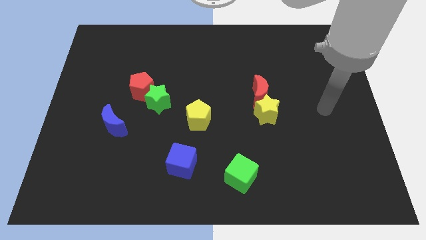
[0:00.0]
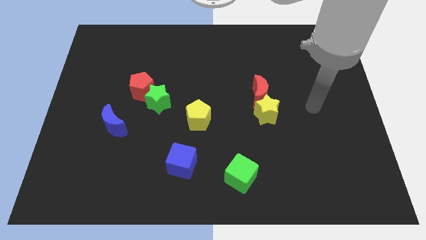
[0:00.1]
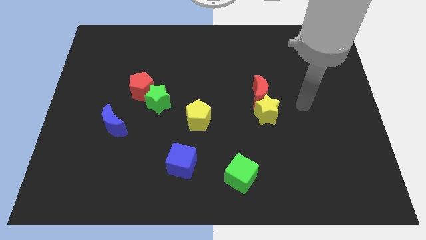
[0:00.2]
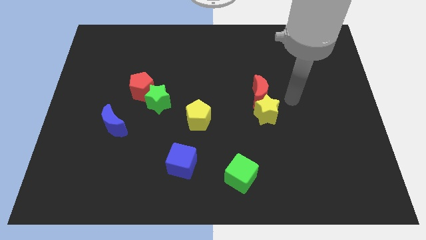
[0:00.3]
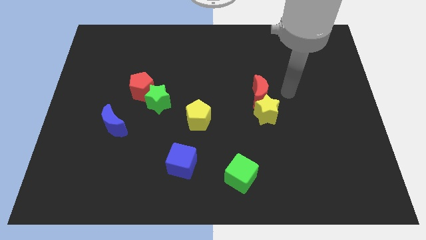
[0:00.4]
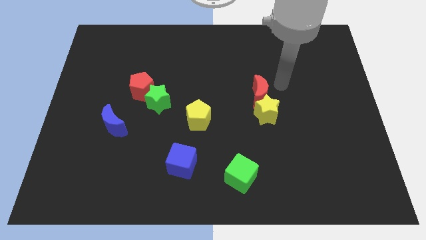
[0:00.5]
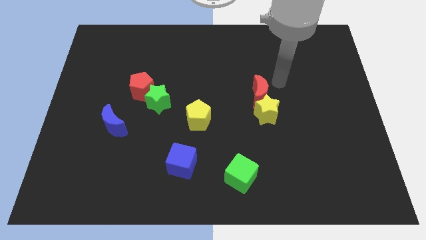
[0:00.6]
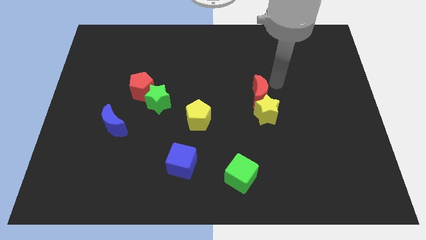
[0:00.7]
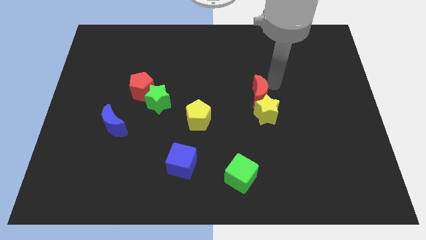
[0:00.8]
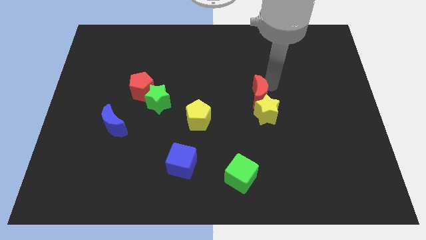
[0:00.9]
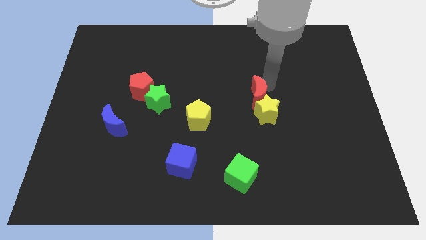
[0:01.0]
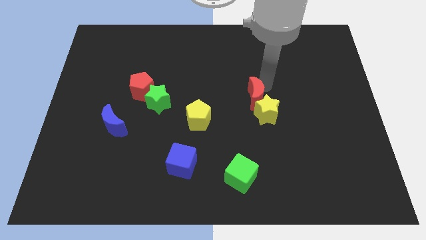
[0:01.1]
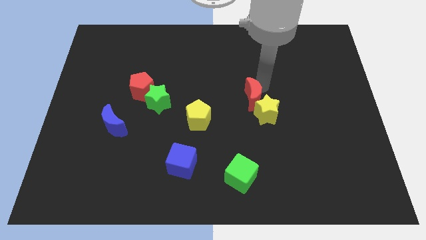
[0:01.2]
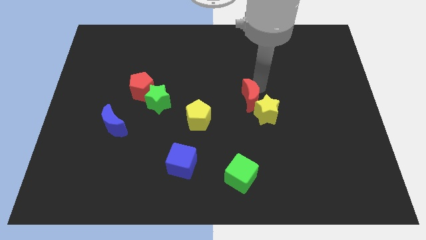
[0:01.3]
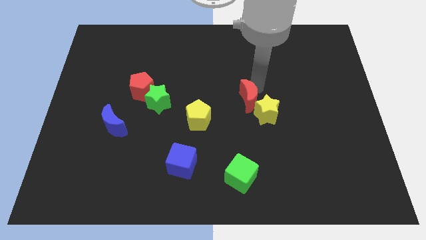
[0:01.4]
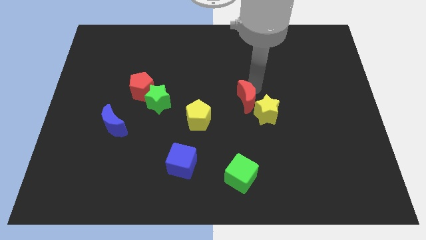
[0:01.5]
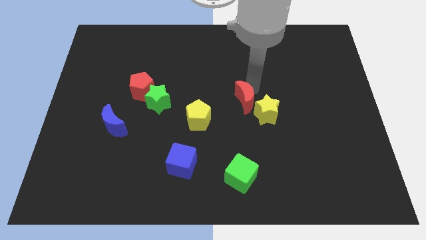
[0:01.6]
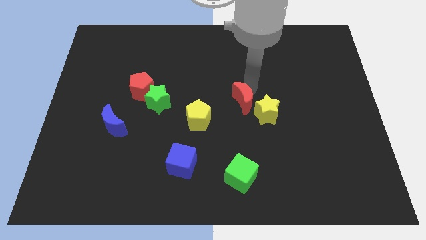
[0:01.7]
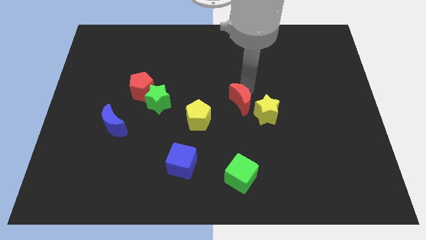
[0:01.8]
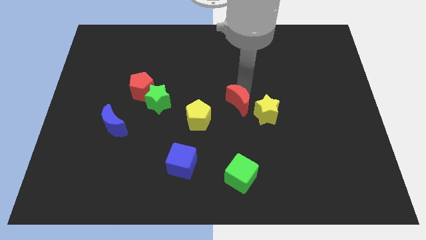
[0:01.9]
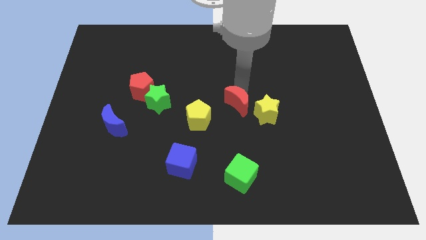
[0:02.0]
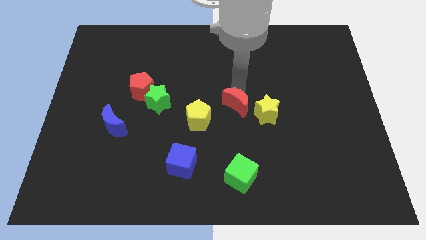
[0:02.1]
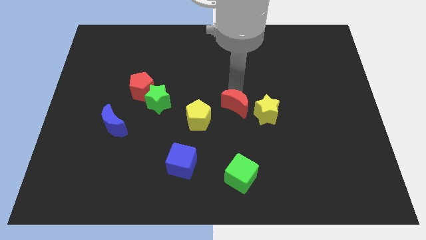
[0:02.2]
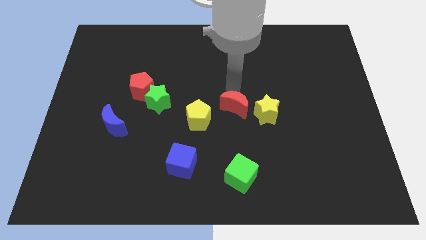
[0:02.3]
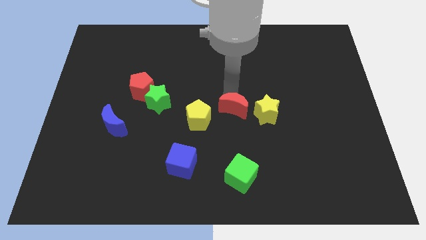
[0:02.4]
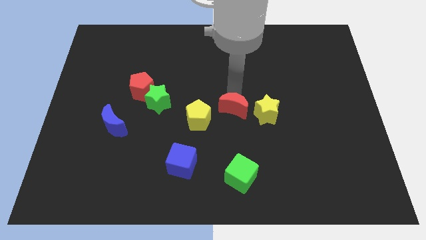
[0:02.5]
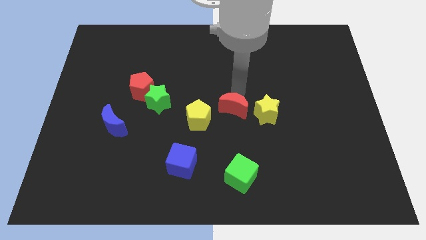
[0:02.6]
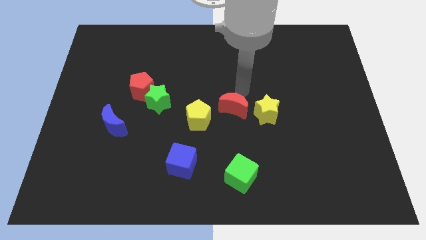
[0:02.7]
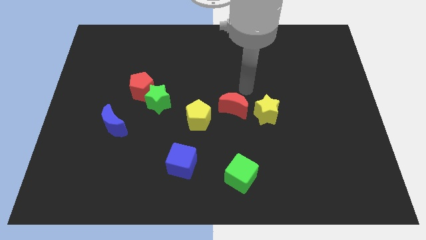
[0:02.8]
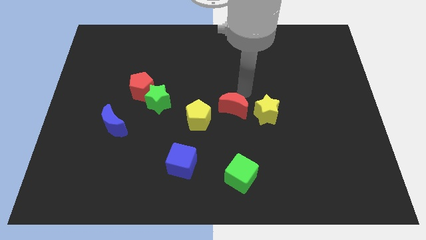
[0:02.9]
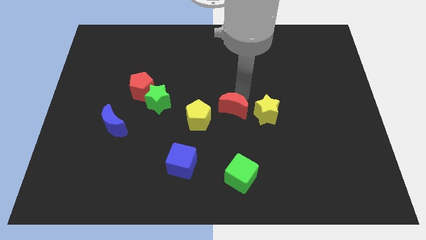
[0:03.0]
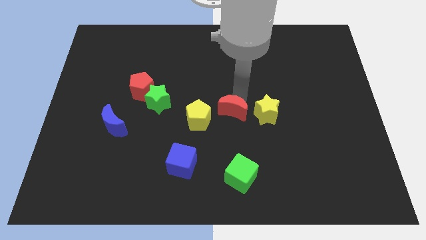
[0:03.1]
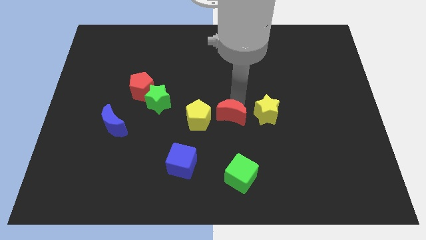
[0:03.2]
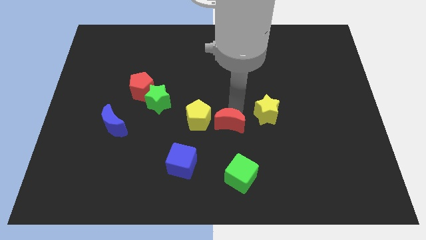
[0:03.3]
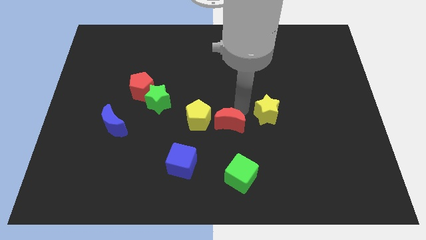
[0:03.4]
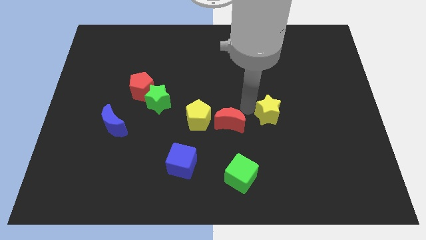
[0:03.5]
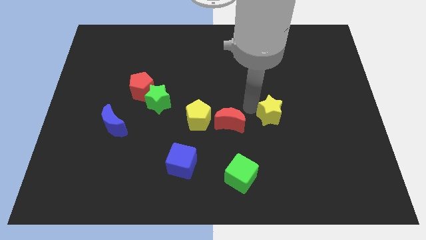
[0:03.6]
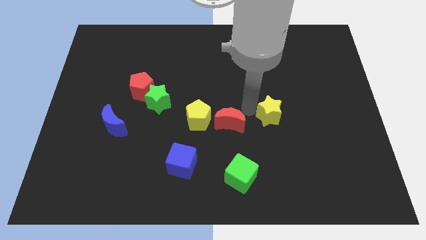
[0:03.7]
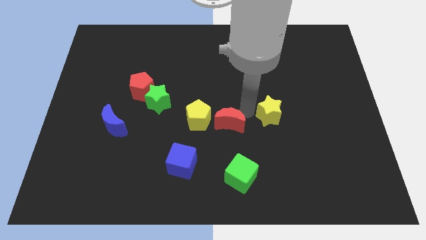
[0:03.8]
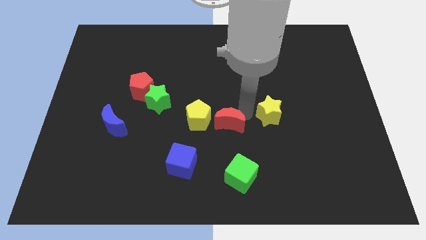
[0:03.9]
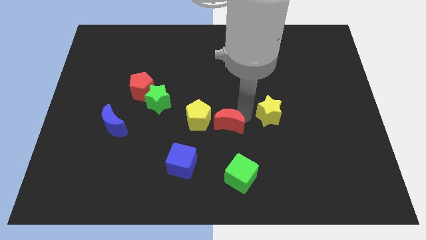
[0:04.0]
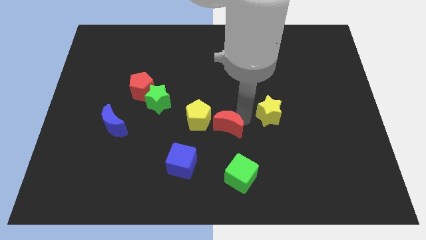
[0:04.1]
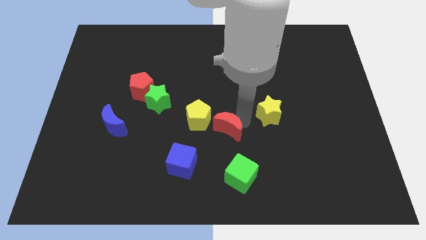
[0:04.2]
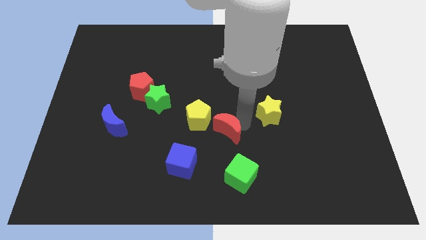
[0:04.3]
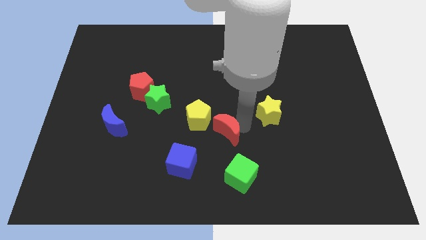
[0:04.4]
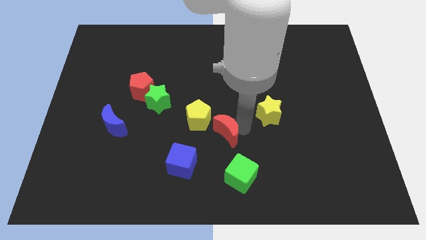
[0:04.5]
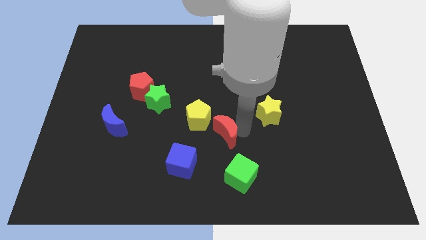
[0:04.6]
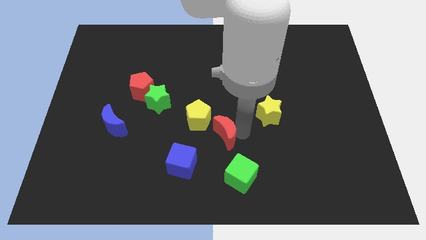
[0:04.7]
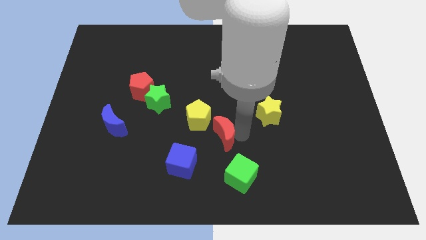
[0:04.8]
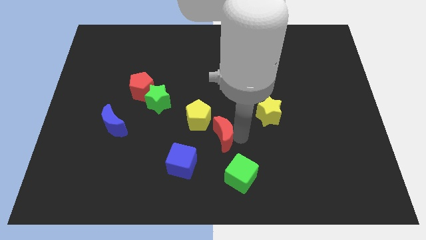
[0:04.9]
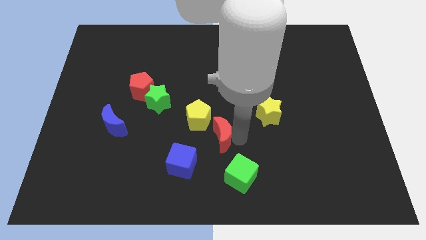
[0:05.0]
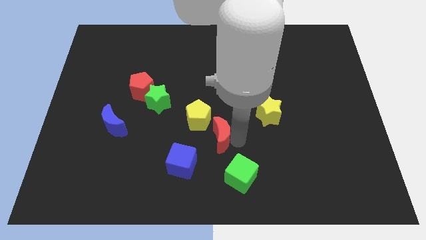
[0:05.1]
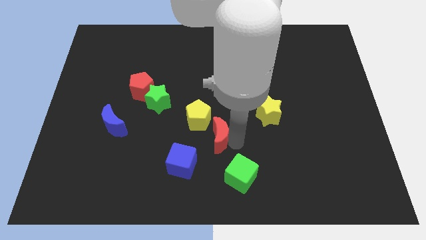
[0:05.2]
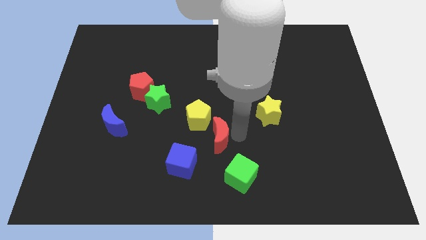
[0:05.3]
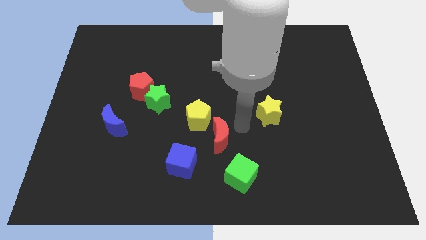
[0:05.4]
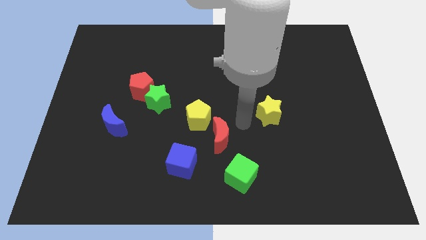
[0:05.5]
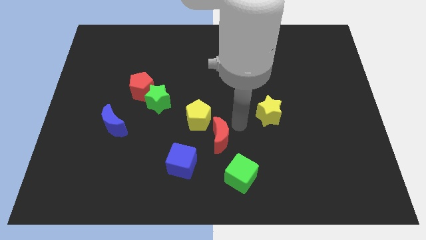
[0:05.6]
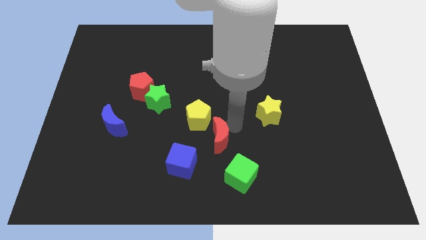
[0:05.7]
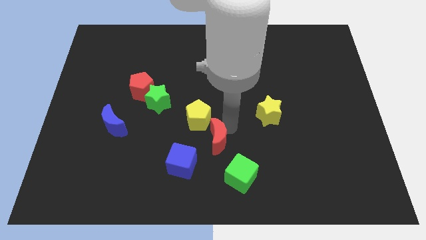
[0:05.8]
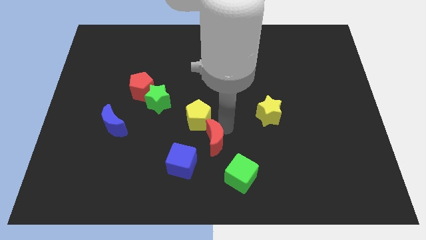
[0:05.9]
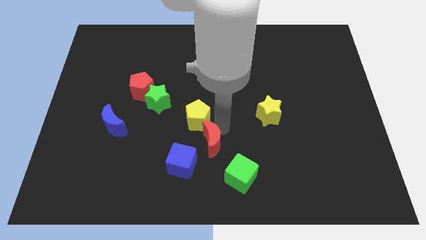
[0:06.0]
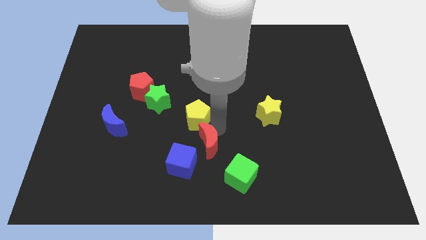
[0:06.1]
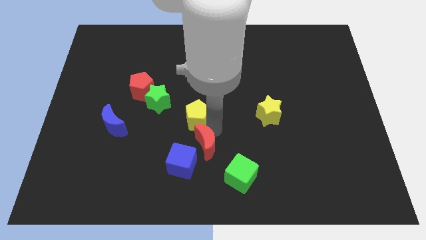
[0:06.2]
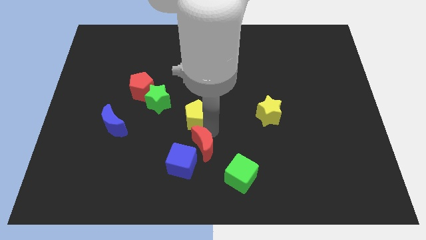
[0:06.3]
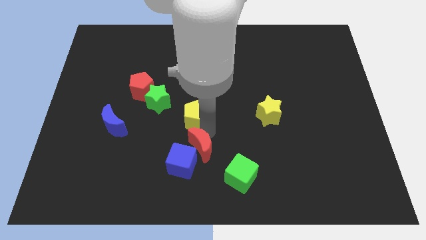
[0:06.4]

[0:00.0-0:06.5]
push the red moon close to the blue cube

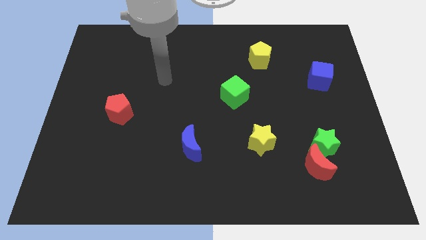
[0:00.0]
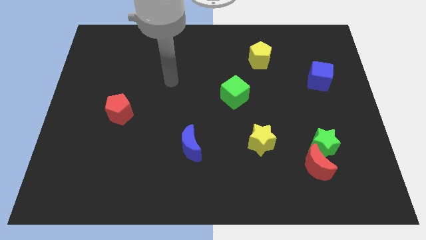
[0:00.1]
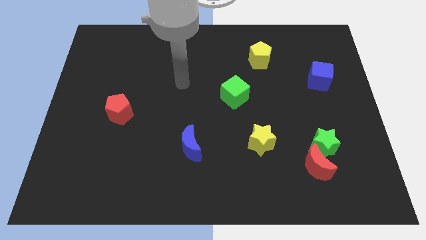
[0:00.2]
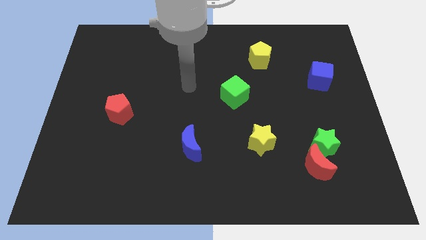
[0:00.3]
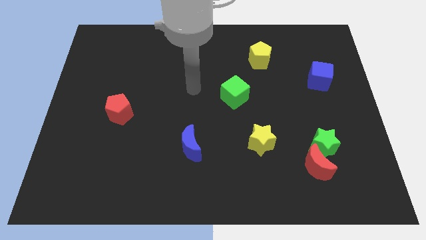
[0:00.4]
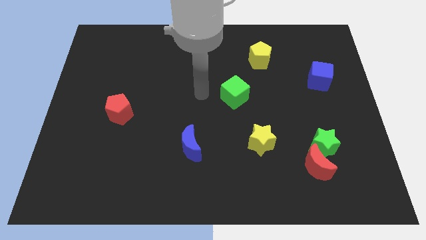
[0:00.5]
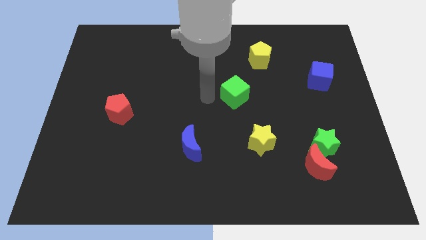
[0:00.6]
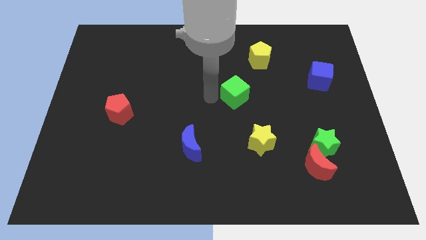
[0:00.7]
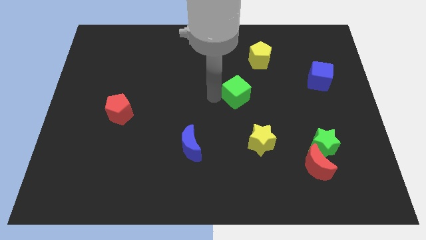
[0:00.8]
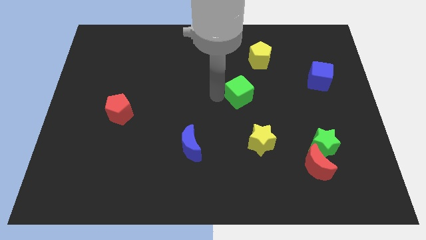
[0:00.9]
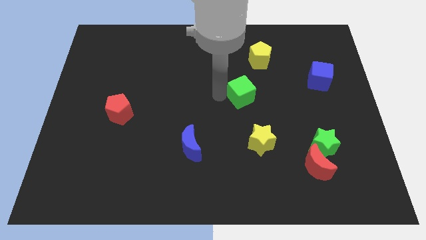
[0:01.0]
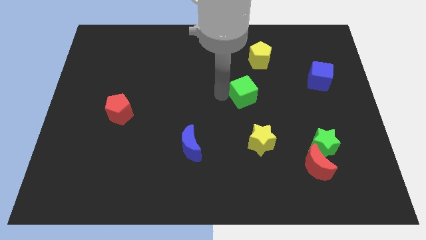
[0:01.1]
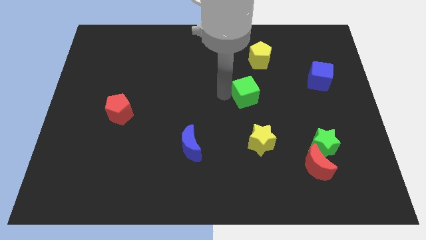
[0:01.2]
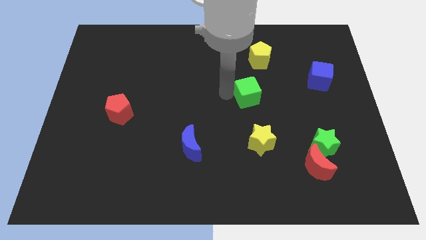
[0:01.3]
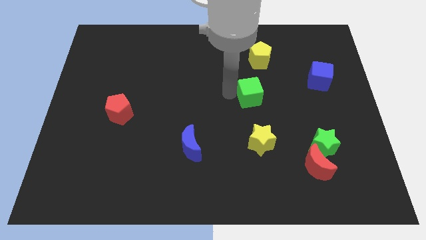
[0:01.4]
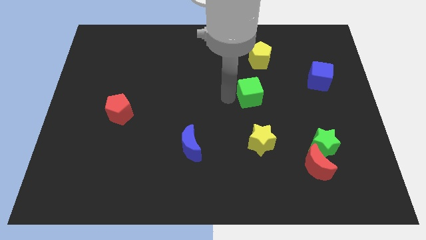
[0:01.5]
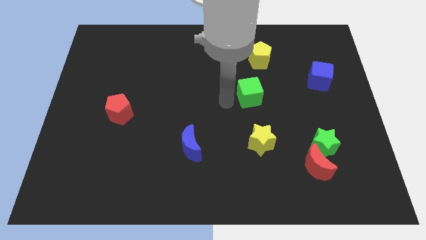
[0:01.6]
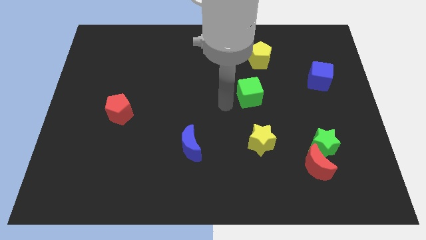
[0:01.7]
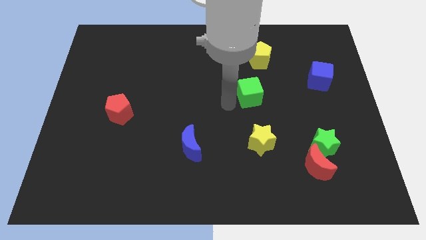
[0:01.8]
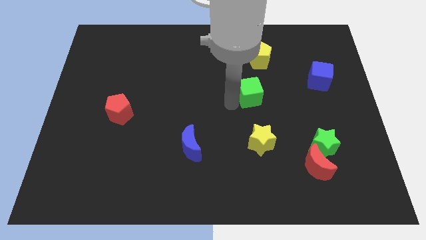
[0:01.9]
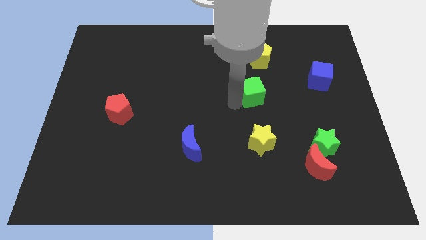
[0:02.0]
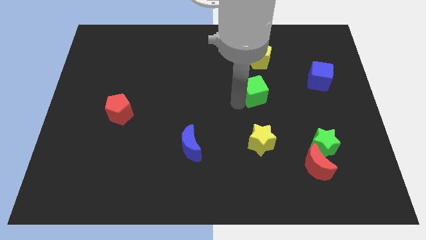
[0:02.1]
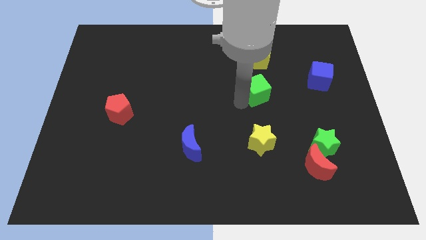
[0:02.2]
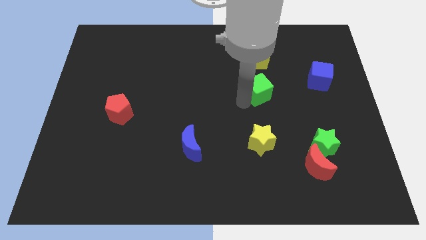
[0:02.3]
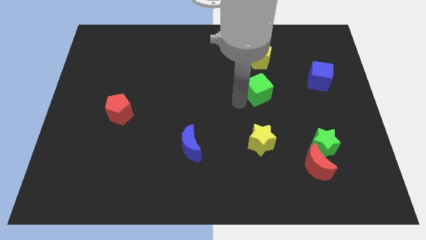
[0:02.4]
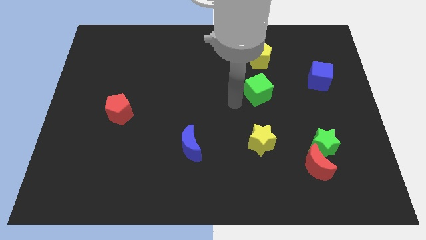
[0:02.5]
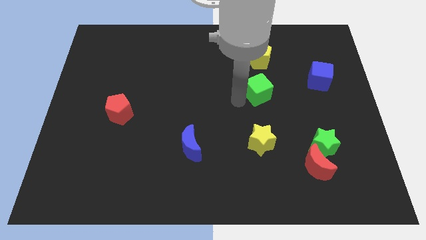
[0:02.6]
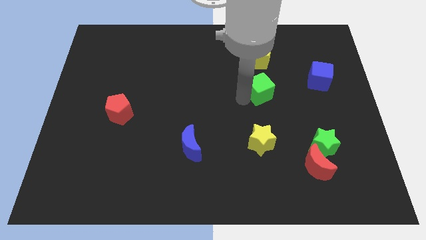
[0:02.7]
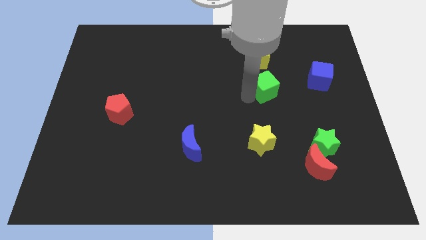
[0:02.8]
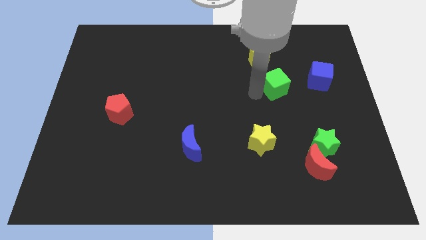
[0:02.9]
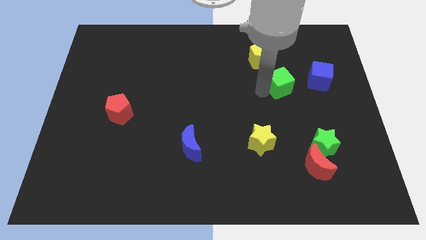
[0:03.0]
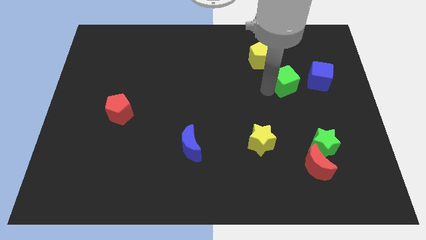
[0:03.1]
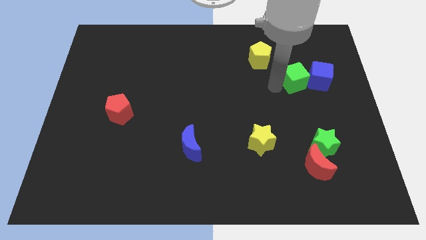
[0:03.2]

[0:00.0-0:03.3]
push the green cube next to the blue cube
